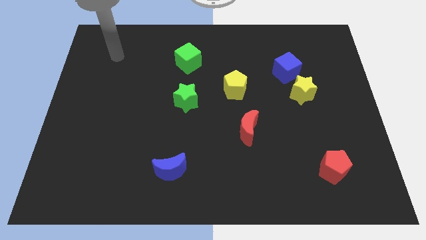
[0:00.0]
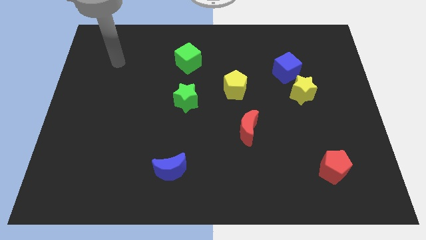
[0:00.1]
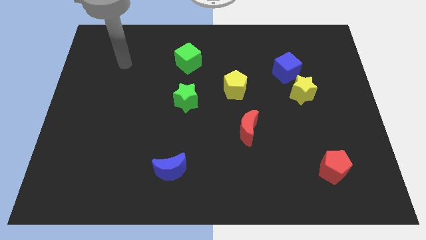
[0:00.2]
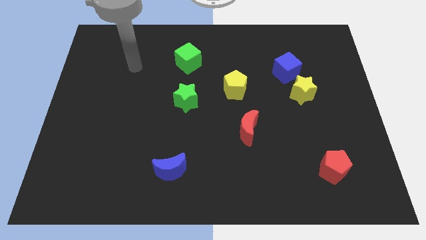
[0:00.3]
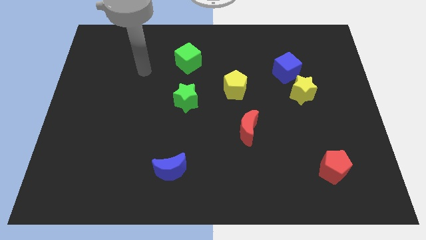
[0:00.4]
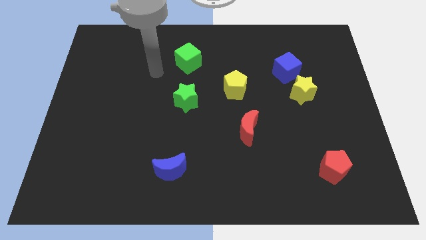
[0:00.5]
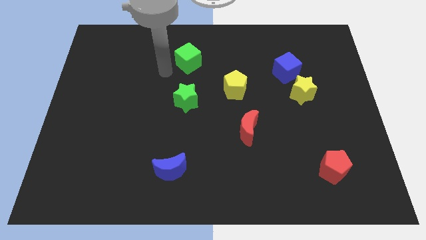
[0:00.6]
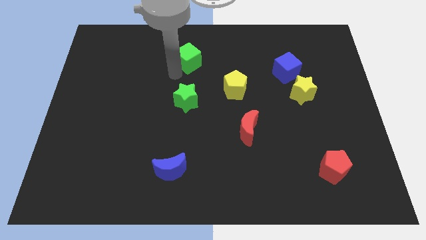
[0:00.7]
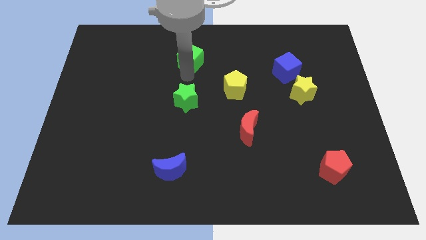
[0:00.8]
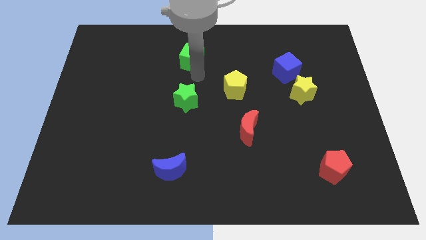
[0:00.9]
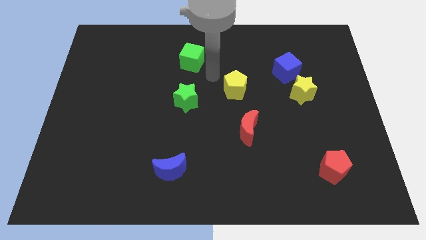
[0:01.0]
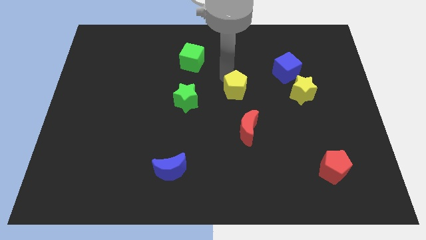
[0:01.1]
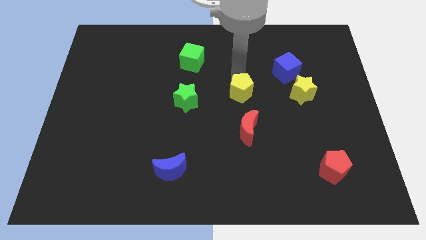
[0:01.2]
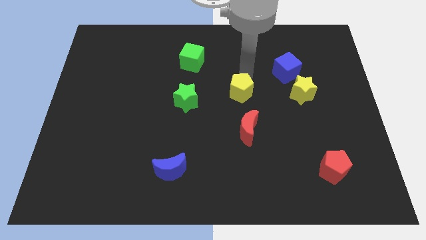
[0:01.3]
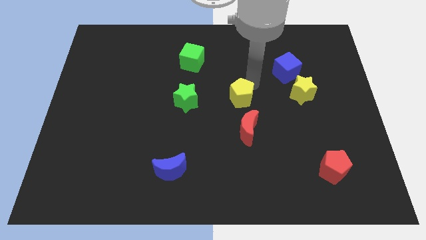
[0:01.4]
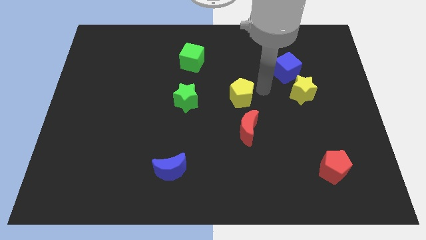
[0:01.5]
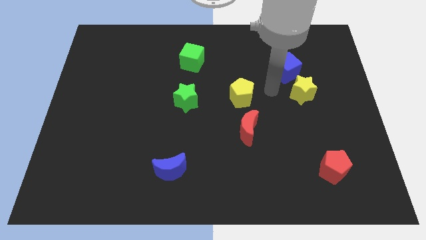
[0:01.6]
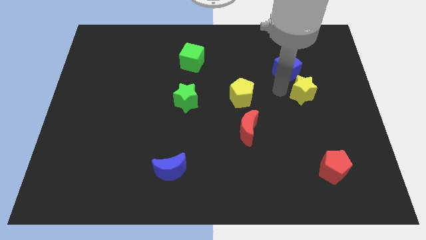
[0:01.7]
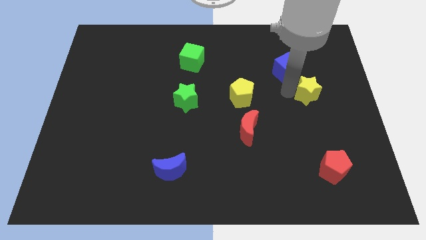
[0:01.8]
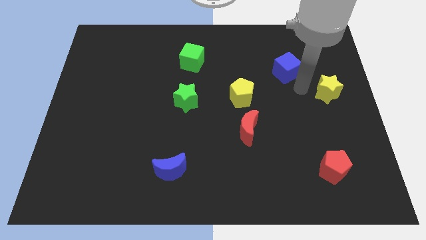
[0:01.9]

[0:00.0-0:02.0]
move the blue cube away from the yellow star

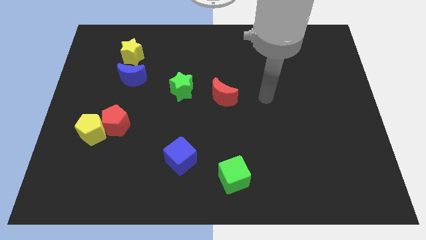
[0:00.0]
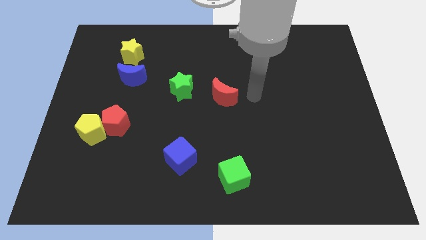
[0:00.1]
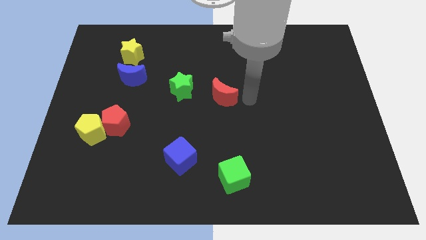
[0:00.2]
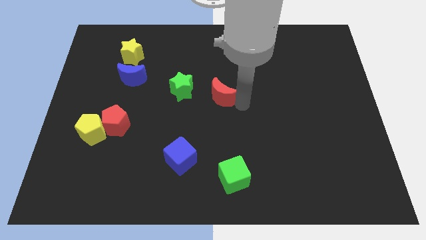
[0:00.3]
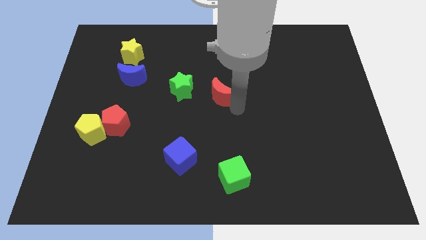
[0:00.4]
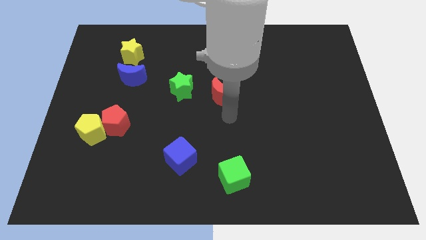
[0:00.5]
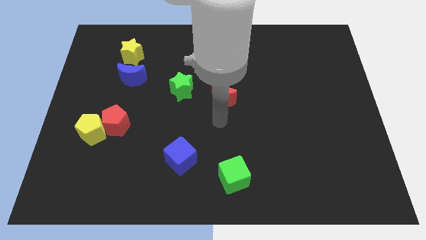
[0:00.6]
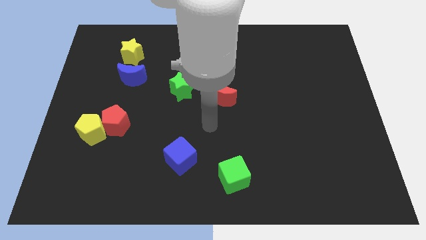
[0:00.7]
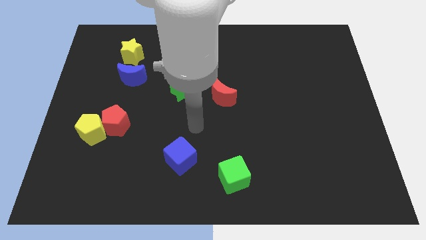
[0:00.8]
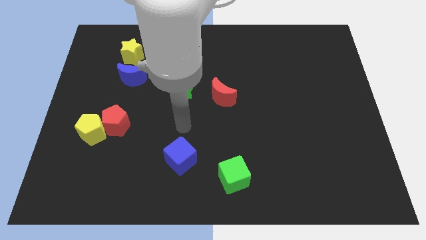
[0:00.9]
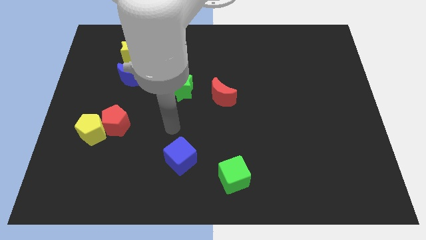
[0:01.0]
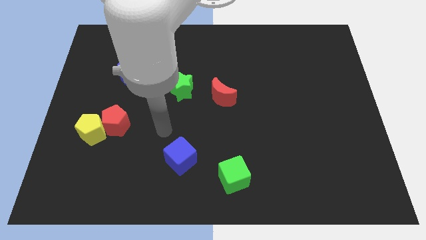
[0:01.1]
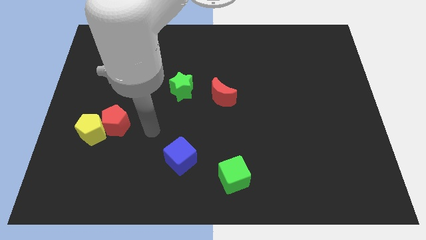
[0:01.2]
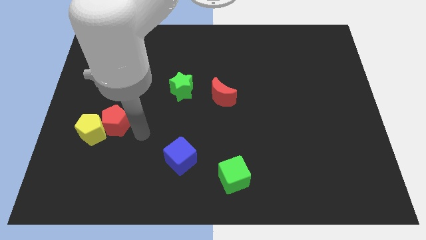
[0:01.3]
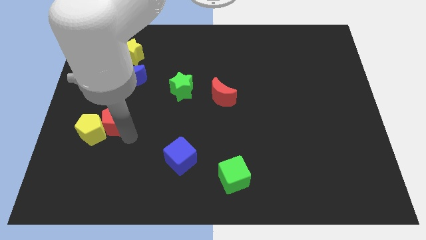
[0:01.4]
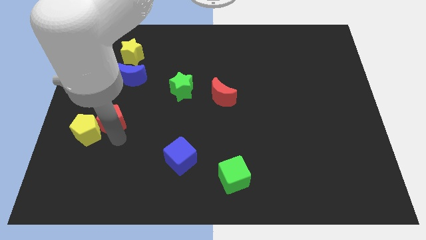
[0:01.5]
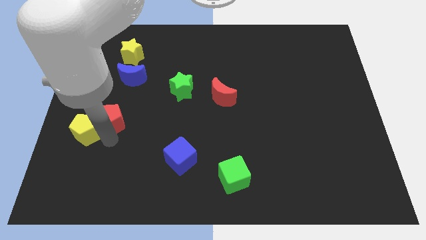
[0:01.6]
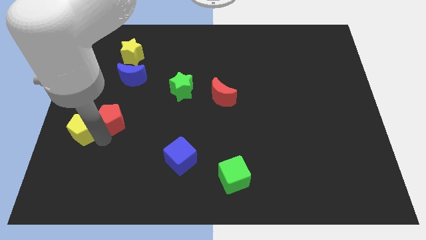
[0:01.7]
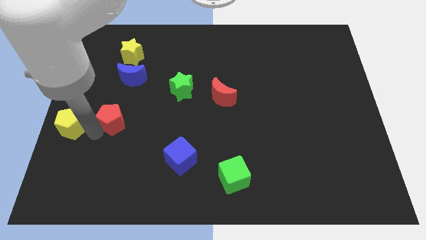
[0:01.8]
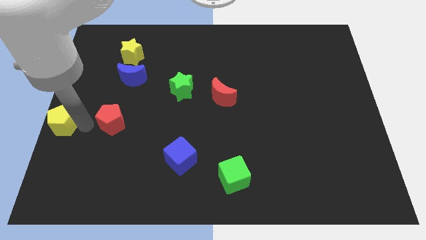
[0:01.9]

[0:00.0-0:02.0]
separate the red pentagon from the yellow pentagon

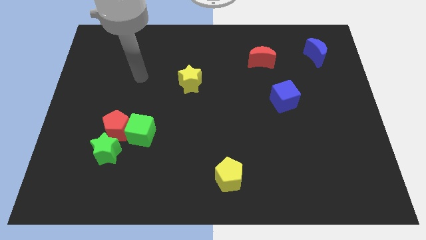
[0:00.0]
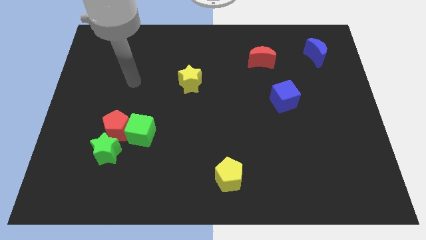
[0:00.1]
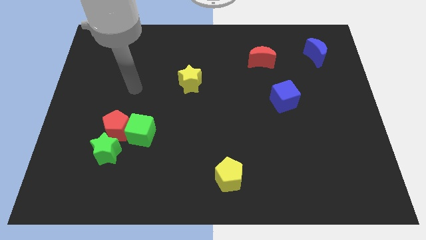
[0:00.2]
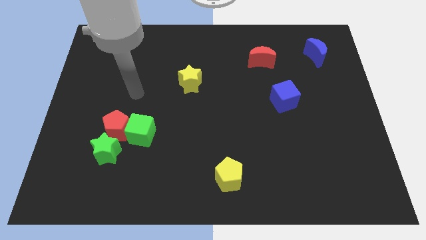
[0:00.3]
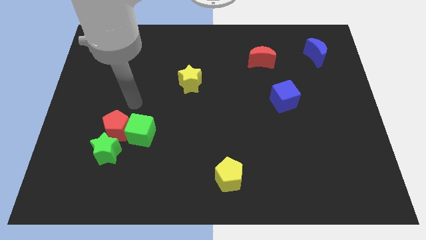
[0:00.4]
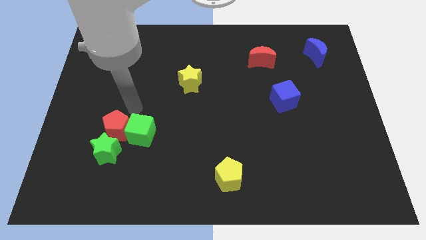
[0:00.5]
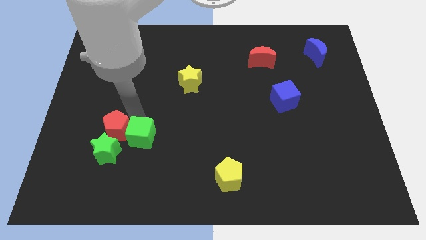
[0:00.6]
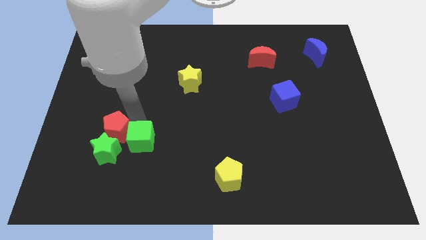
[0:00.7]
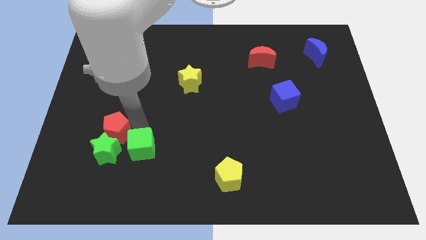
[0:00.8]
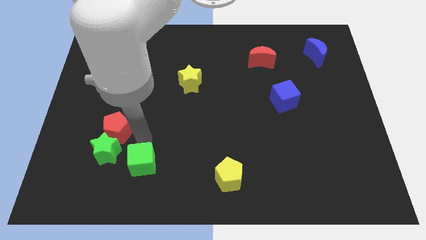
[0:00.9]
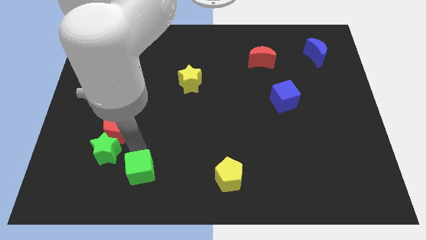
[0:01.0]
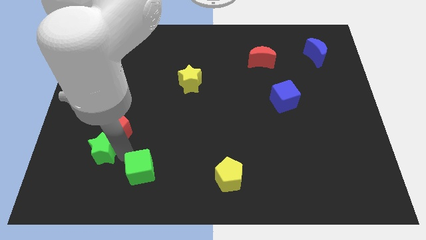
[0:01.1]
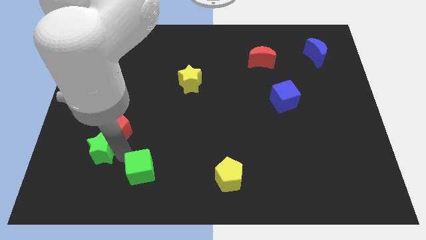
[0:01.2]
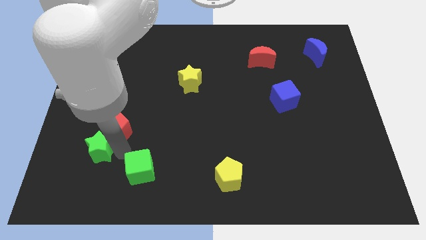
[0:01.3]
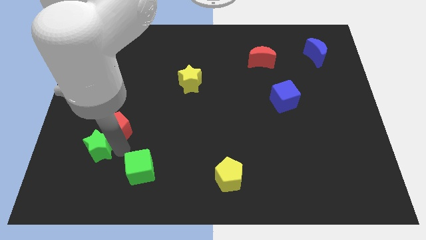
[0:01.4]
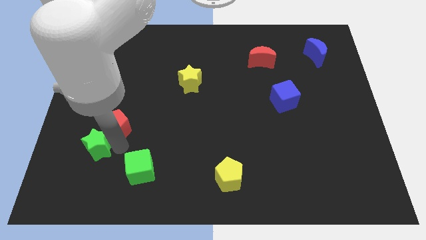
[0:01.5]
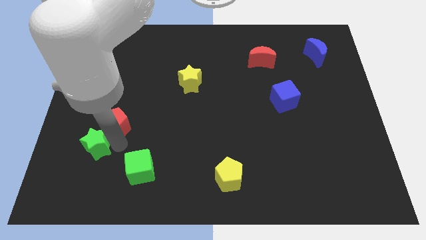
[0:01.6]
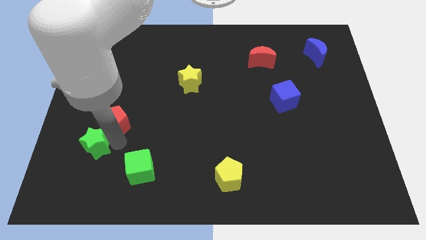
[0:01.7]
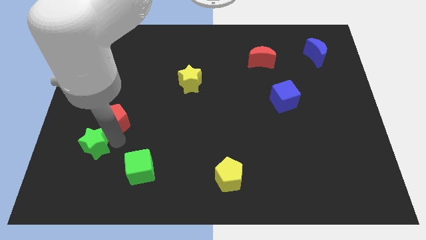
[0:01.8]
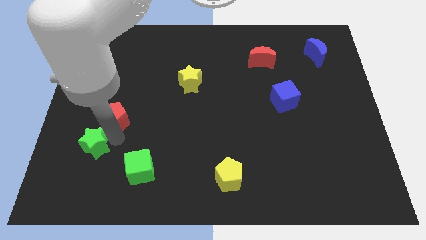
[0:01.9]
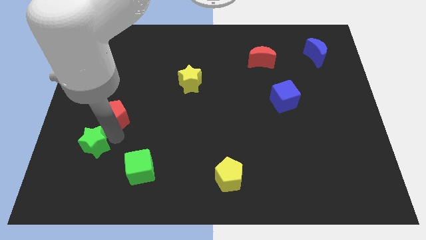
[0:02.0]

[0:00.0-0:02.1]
move the red pentagon away from the green cube and green star

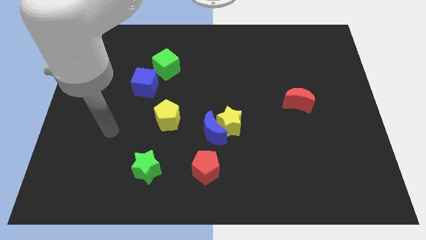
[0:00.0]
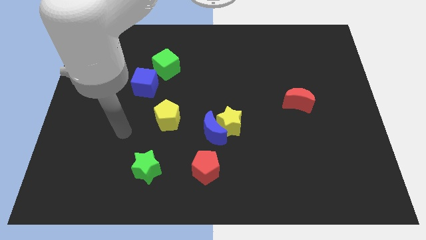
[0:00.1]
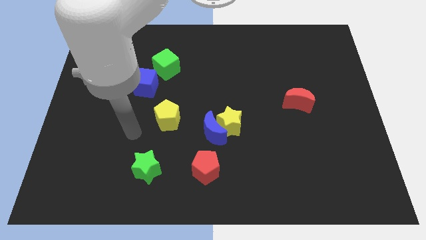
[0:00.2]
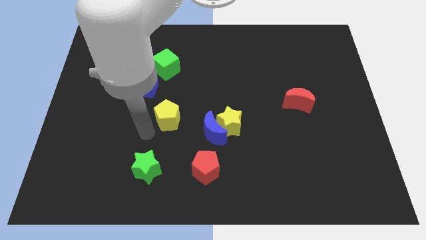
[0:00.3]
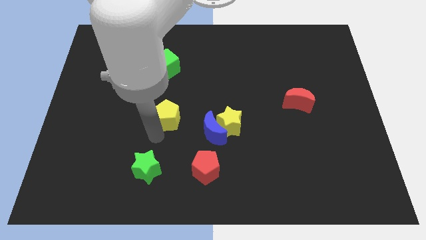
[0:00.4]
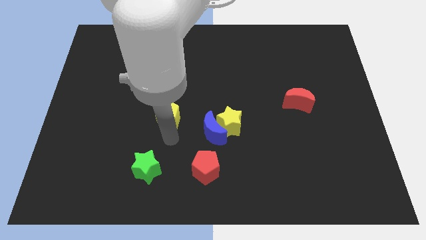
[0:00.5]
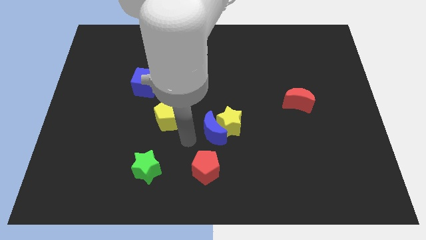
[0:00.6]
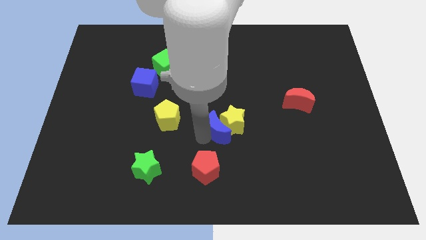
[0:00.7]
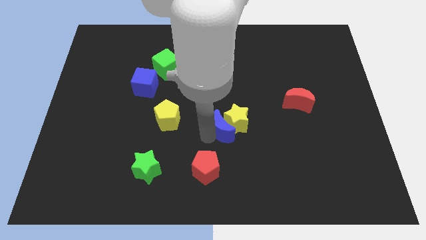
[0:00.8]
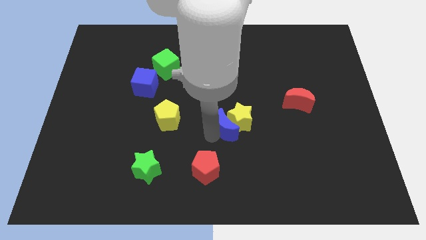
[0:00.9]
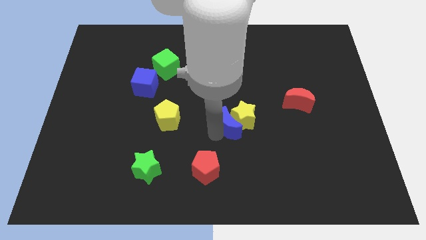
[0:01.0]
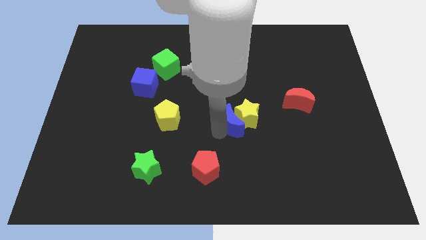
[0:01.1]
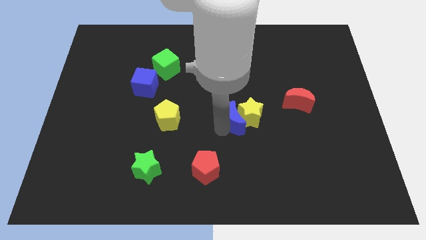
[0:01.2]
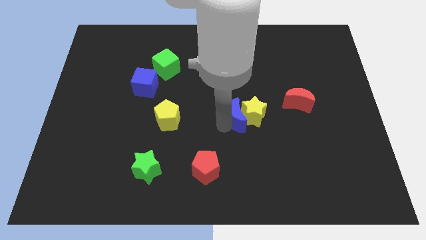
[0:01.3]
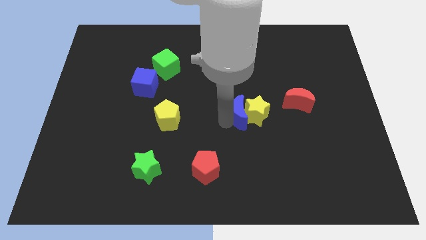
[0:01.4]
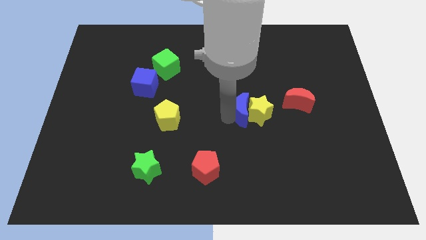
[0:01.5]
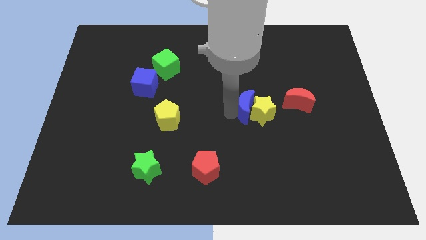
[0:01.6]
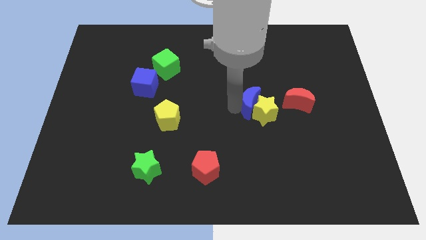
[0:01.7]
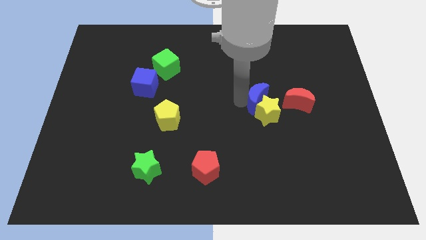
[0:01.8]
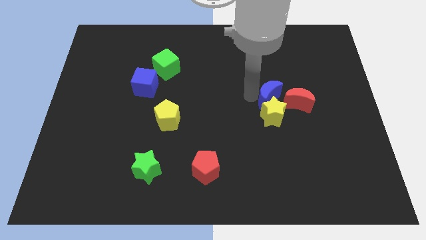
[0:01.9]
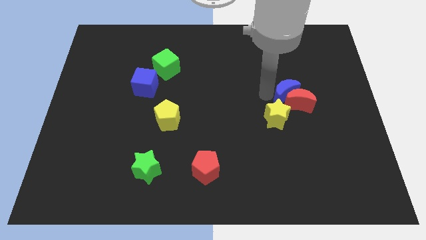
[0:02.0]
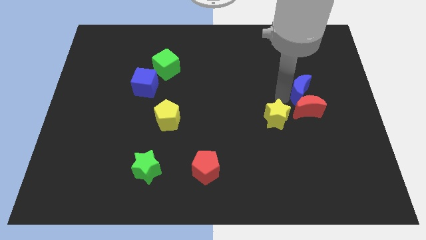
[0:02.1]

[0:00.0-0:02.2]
pull the yellow star apart from the blue moon

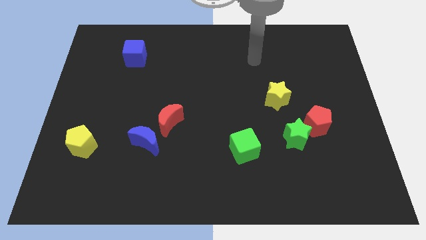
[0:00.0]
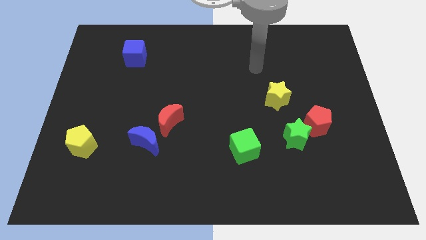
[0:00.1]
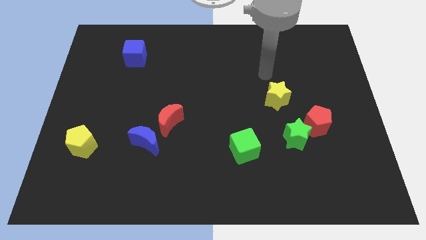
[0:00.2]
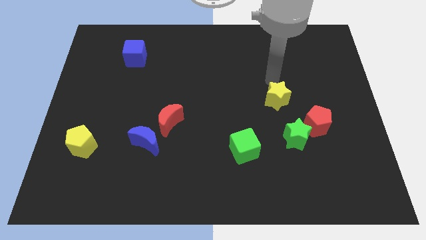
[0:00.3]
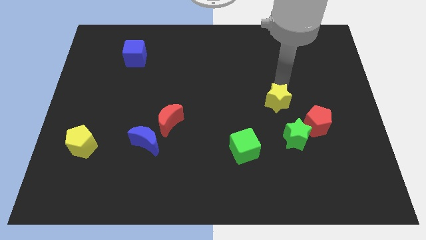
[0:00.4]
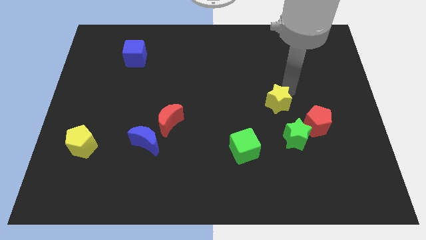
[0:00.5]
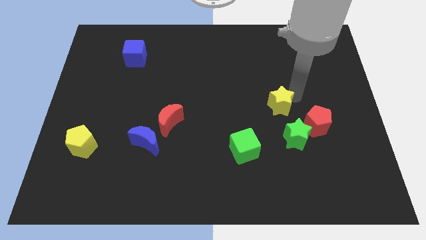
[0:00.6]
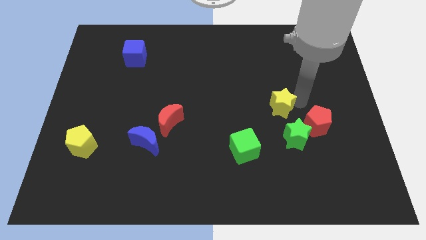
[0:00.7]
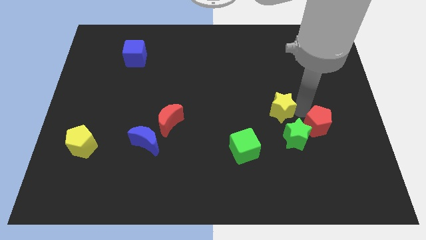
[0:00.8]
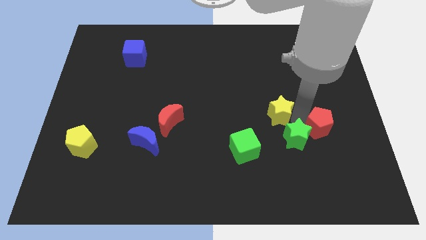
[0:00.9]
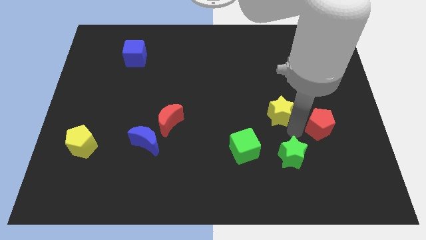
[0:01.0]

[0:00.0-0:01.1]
pull the red pentagon apart from the green star
